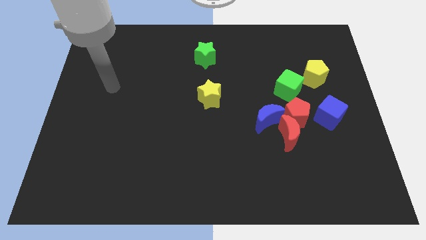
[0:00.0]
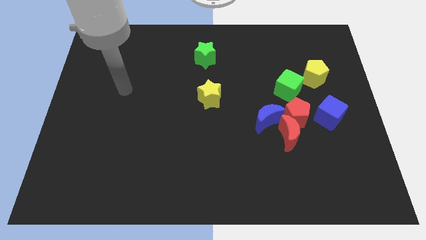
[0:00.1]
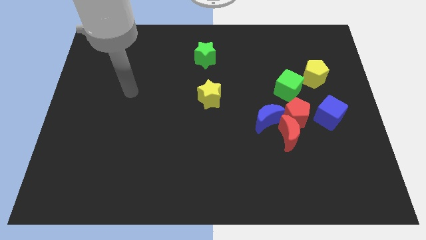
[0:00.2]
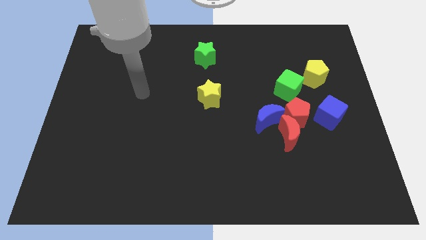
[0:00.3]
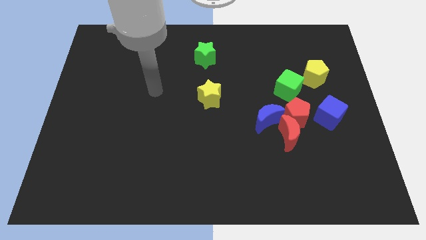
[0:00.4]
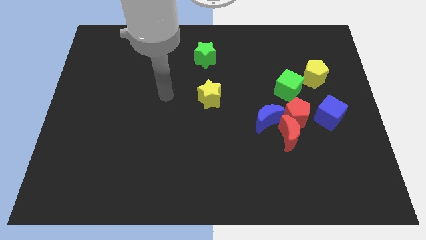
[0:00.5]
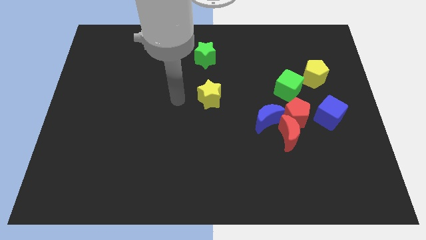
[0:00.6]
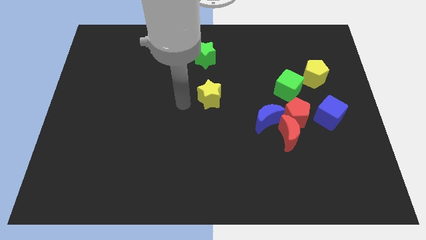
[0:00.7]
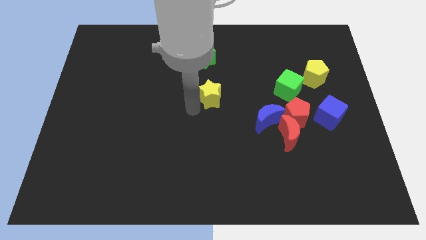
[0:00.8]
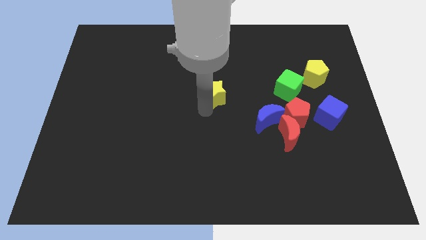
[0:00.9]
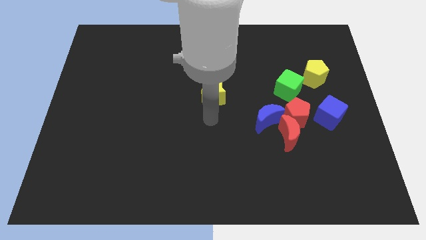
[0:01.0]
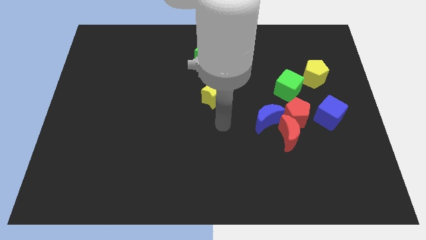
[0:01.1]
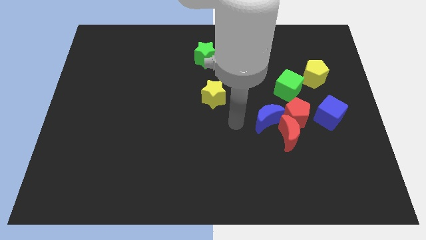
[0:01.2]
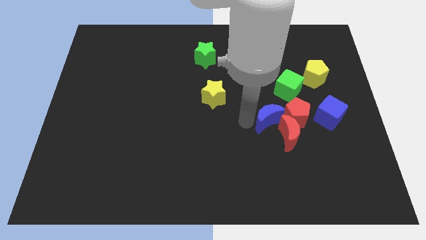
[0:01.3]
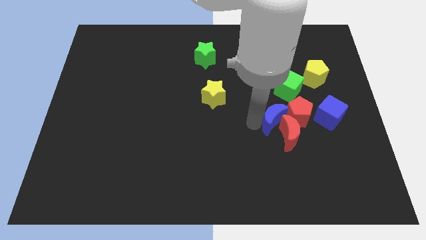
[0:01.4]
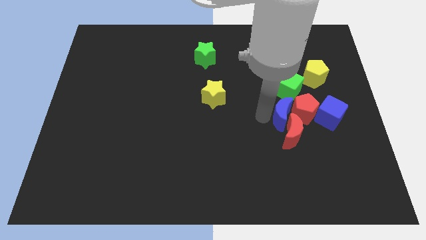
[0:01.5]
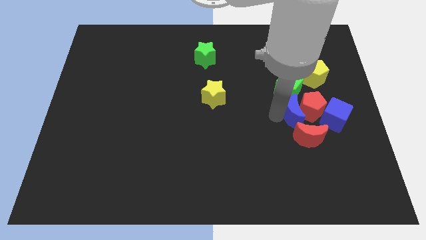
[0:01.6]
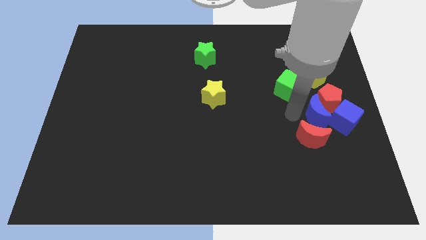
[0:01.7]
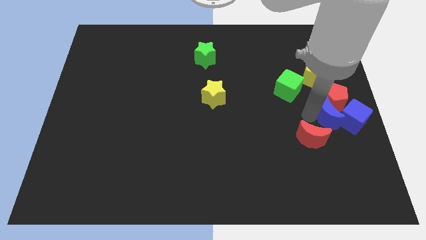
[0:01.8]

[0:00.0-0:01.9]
pull the red moon apart from the red pentagon and blue moon

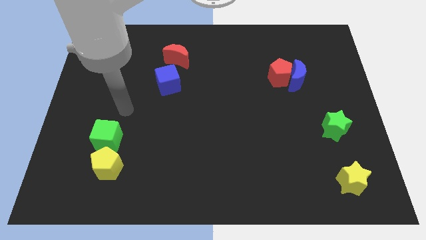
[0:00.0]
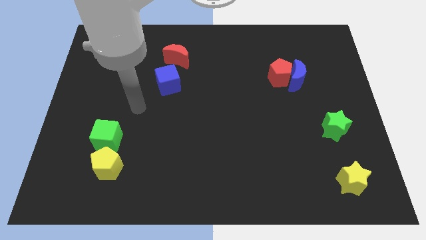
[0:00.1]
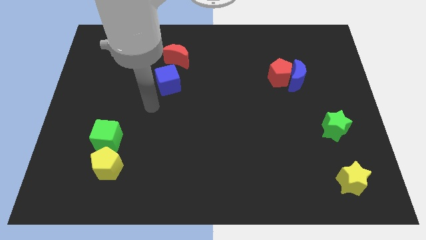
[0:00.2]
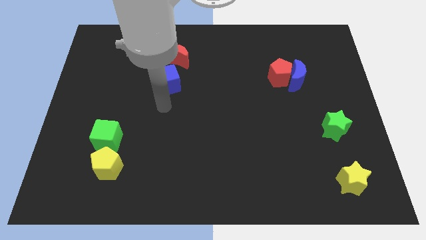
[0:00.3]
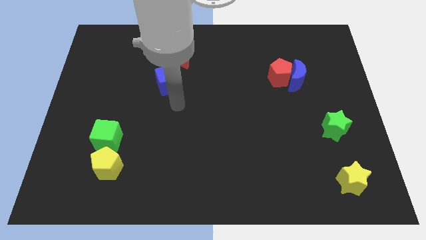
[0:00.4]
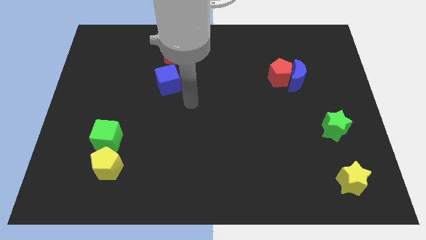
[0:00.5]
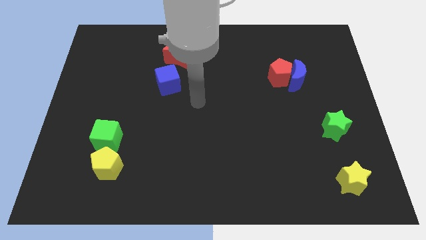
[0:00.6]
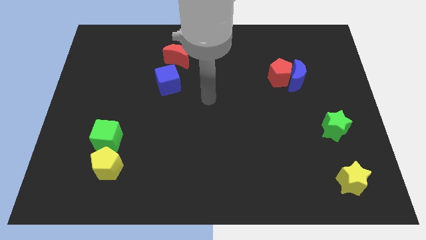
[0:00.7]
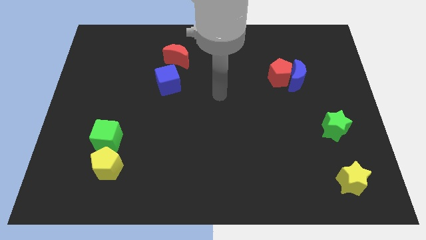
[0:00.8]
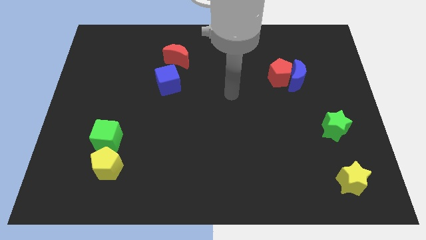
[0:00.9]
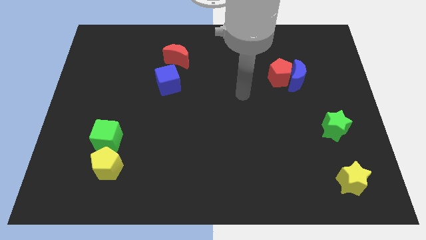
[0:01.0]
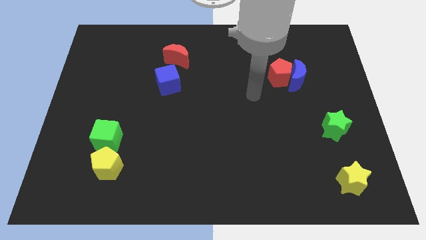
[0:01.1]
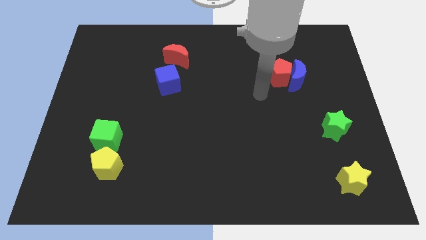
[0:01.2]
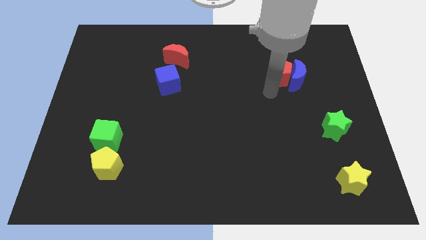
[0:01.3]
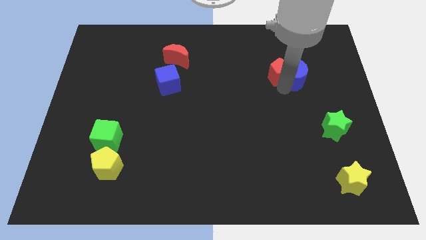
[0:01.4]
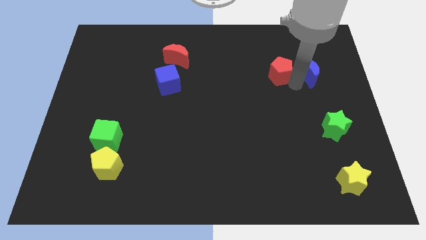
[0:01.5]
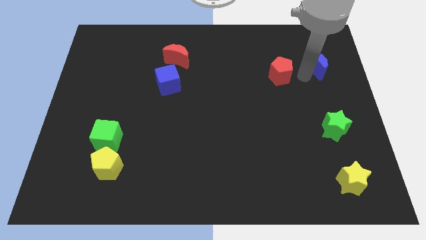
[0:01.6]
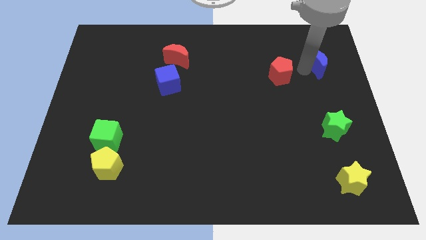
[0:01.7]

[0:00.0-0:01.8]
pull the red pentagon apart from the blue moon

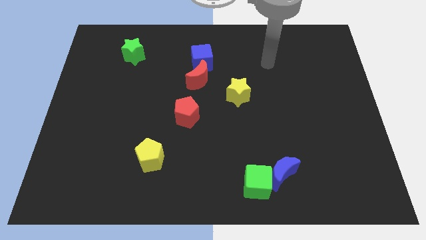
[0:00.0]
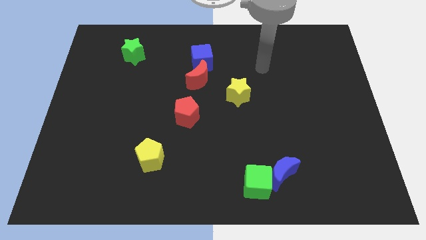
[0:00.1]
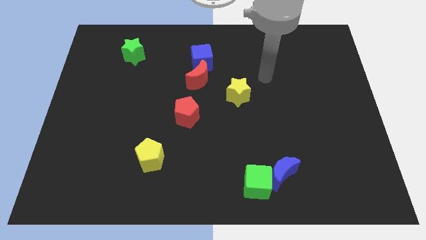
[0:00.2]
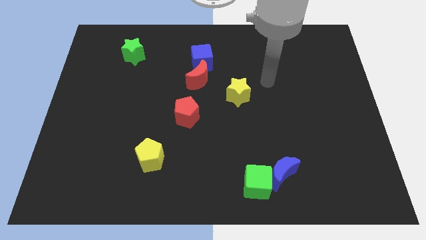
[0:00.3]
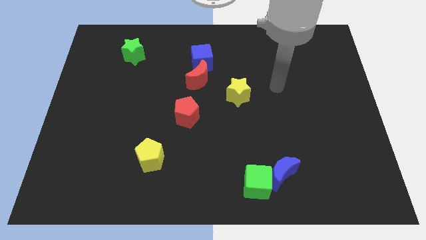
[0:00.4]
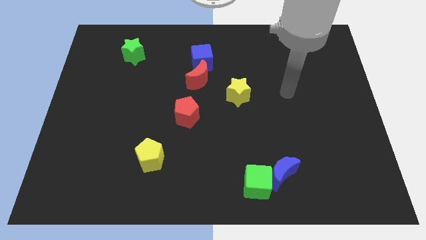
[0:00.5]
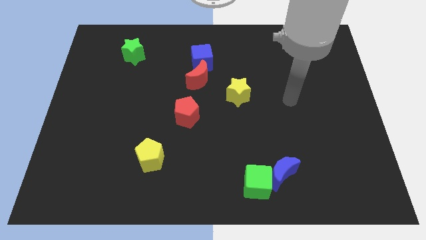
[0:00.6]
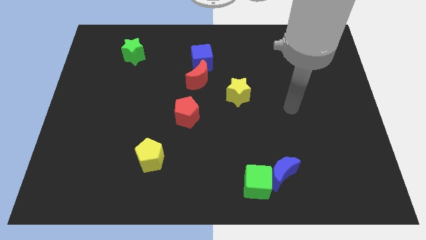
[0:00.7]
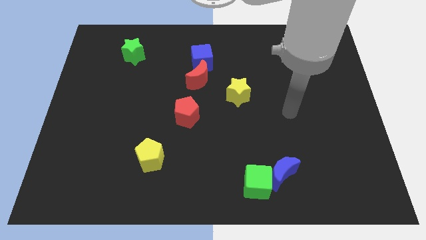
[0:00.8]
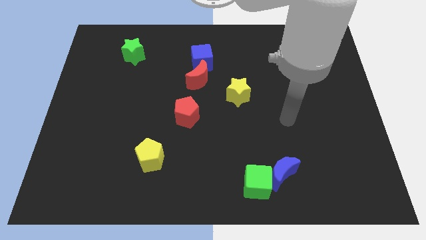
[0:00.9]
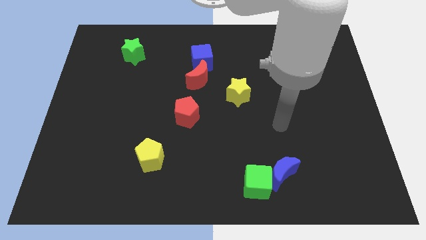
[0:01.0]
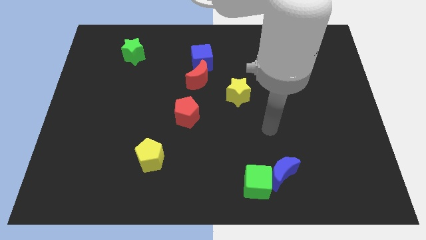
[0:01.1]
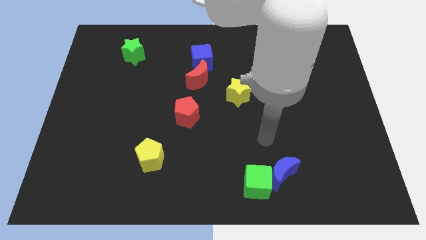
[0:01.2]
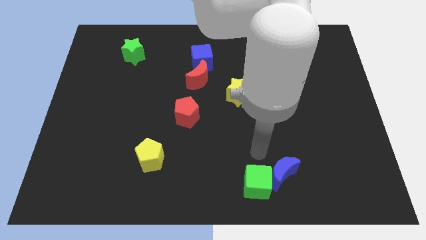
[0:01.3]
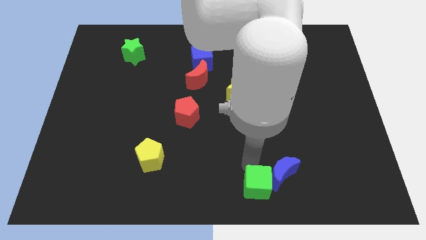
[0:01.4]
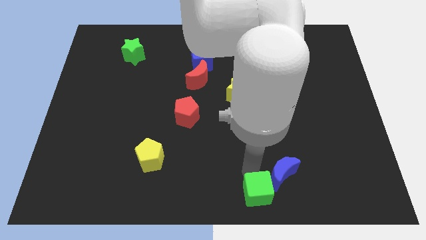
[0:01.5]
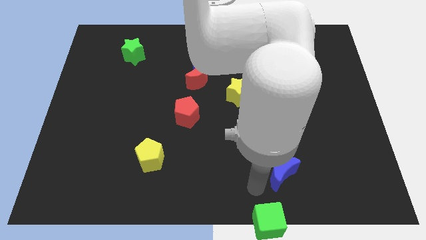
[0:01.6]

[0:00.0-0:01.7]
pull the blue moon apart from the green cube

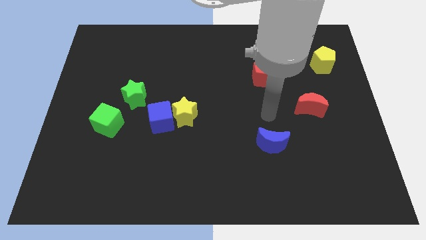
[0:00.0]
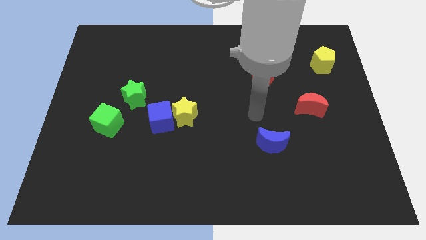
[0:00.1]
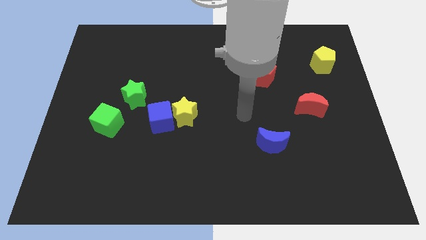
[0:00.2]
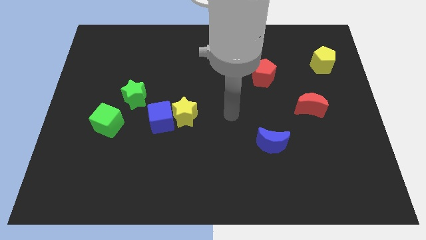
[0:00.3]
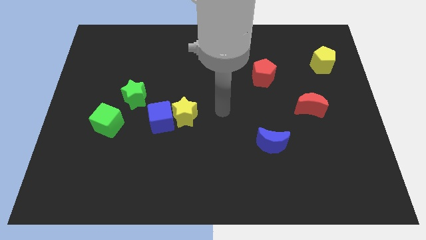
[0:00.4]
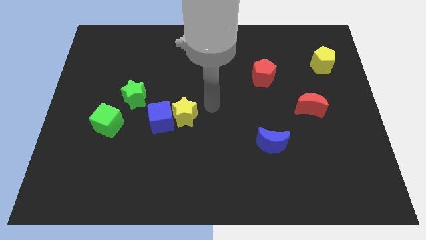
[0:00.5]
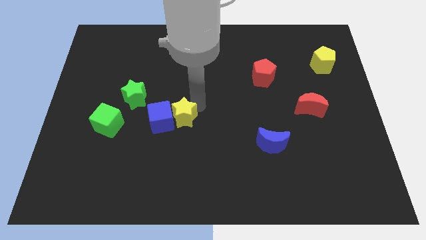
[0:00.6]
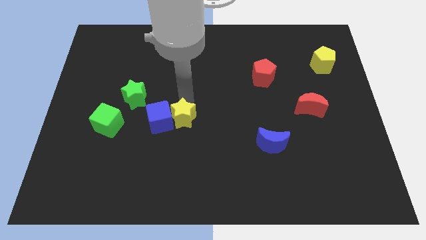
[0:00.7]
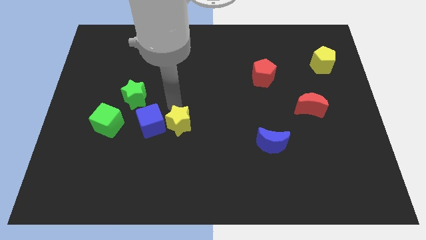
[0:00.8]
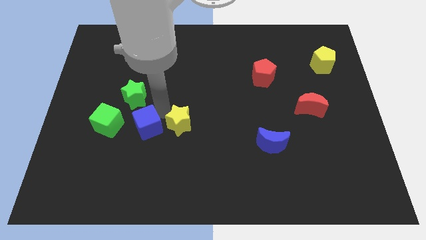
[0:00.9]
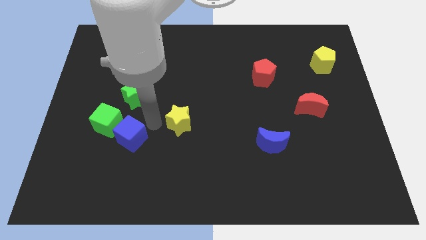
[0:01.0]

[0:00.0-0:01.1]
pull the yellow star apart from the blue cube

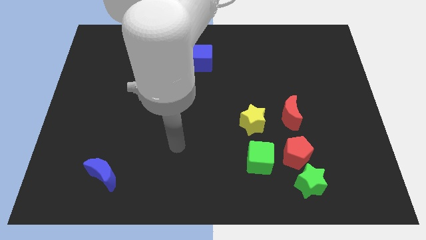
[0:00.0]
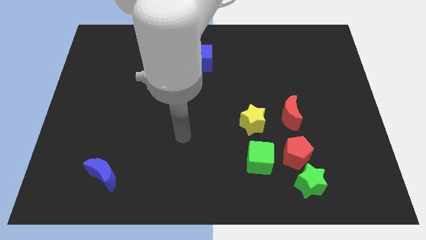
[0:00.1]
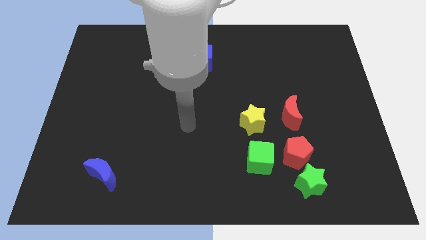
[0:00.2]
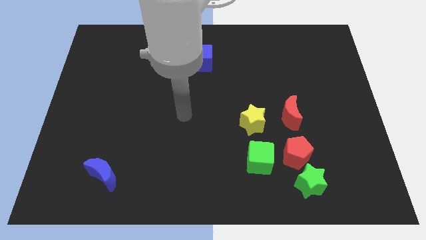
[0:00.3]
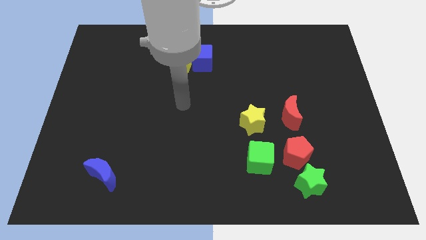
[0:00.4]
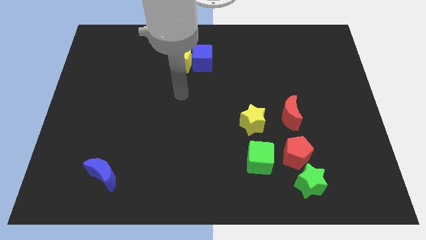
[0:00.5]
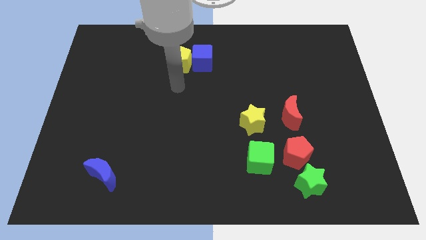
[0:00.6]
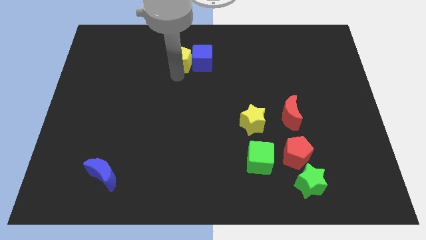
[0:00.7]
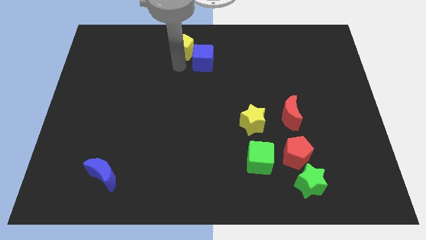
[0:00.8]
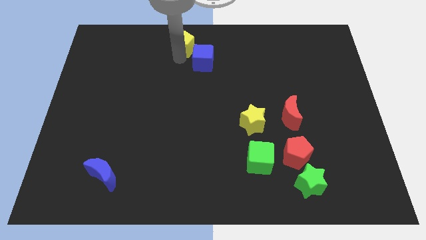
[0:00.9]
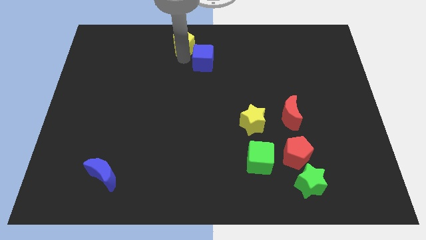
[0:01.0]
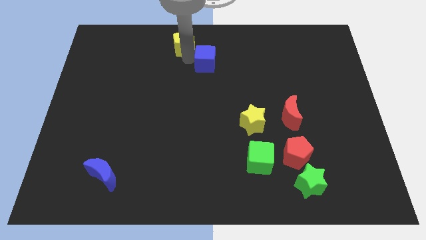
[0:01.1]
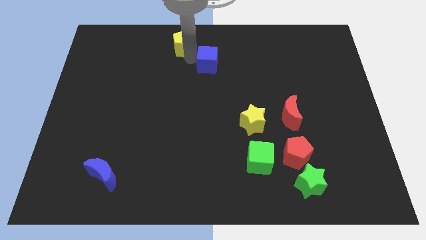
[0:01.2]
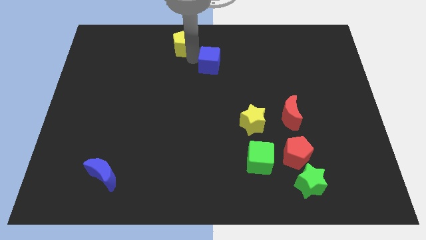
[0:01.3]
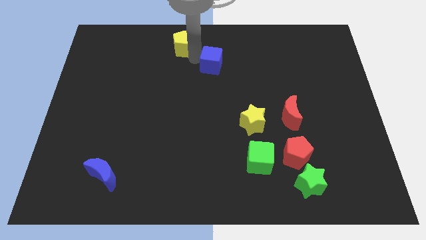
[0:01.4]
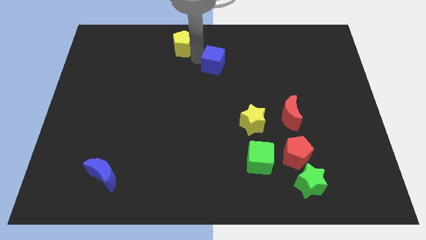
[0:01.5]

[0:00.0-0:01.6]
move the blue cube away from the yellow pentagon

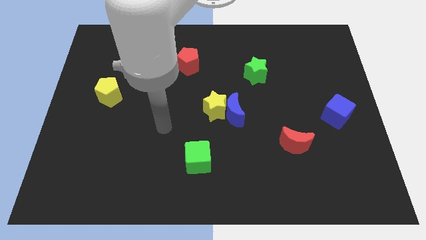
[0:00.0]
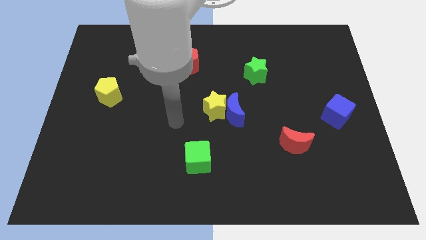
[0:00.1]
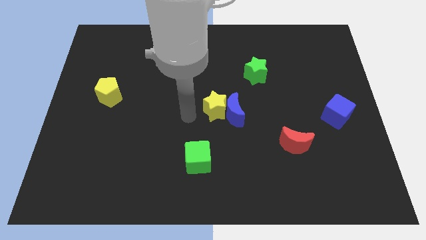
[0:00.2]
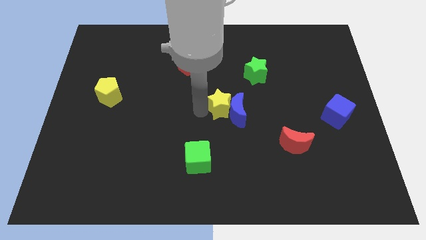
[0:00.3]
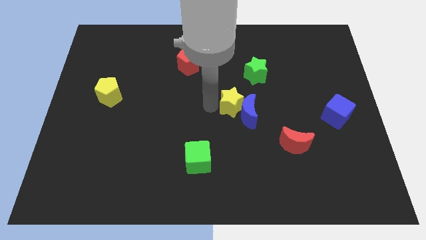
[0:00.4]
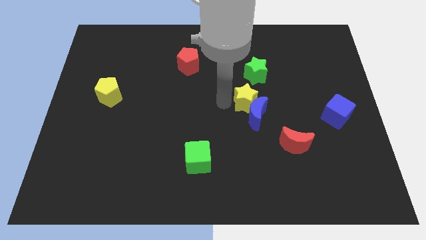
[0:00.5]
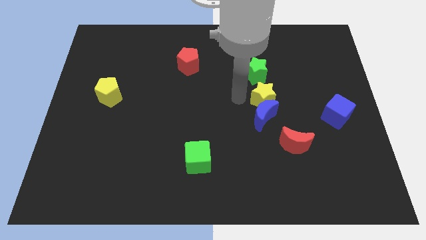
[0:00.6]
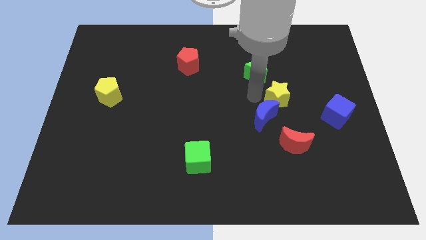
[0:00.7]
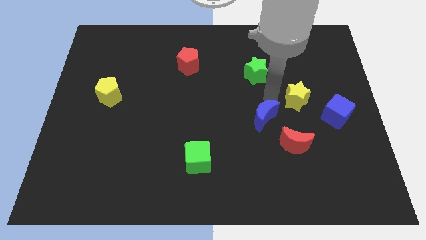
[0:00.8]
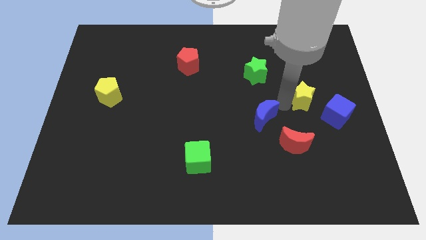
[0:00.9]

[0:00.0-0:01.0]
pull the blue moon apart from the yellow star

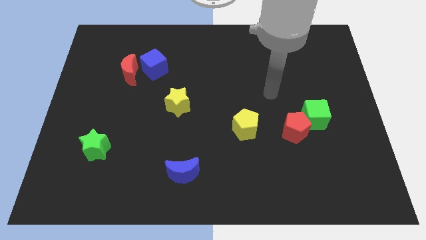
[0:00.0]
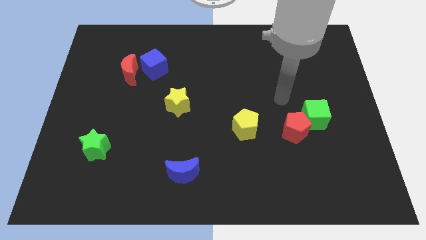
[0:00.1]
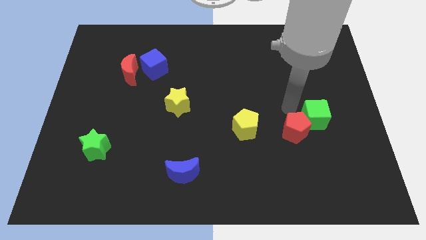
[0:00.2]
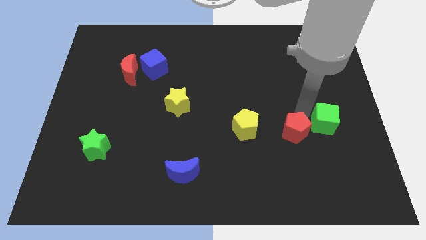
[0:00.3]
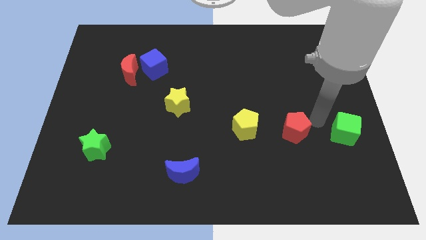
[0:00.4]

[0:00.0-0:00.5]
pull the red pentagon apart from the green cube
